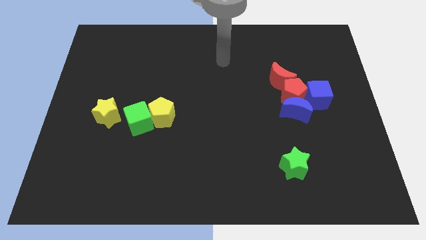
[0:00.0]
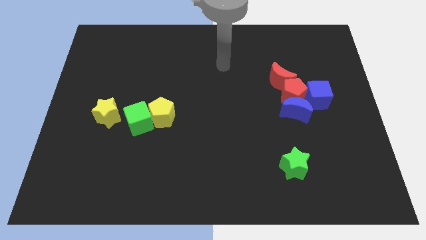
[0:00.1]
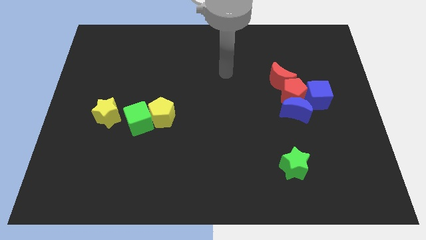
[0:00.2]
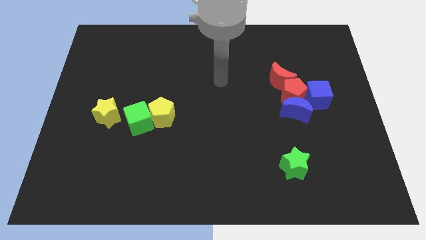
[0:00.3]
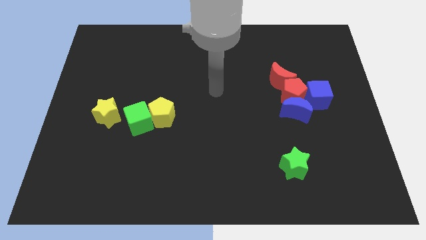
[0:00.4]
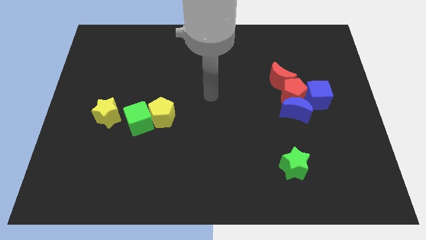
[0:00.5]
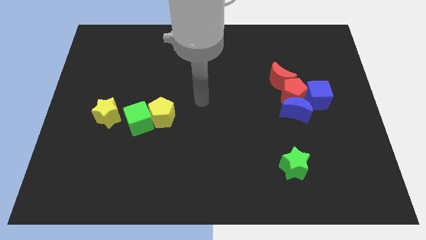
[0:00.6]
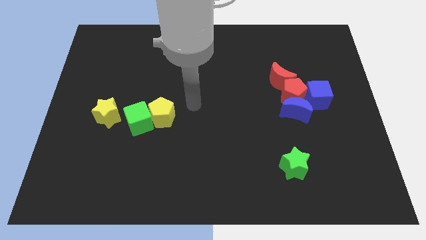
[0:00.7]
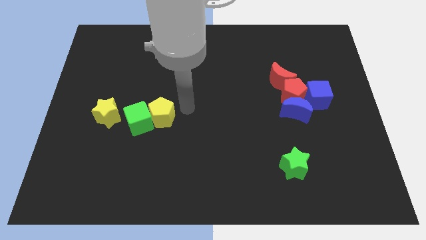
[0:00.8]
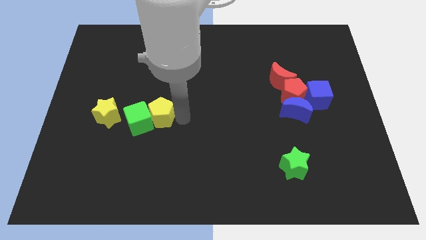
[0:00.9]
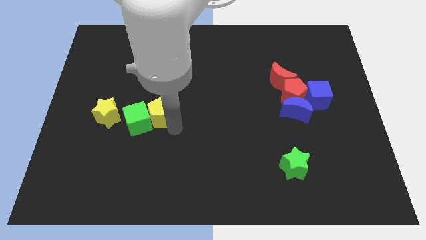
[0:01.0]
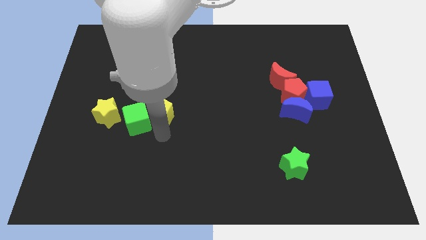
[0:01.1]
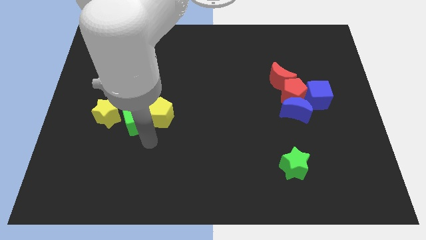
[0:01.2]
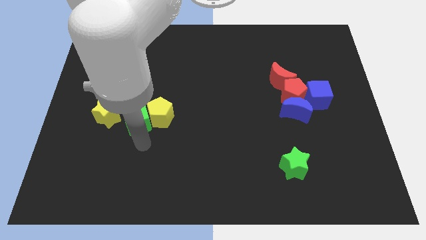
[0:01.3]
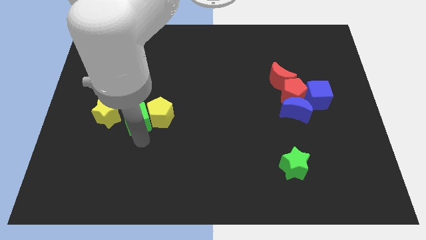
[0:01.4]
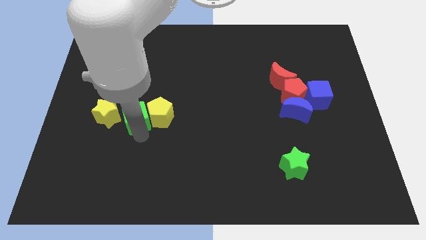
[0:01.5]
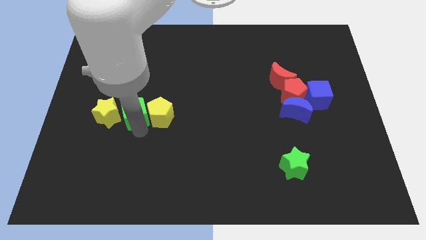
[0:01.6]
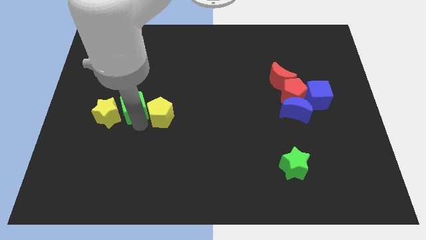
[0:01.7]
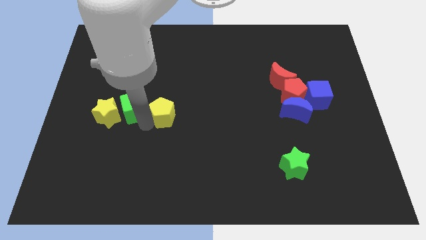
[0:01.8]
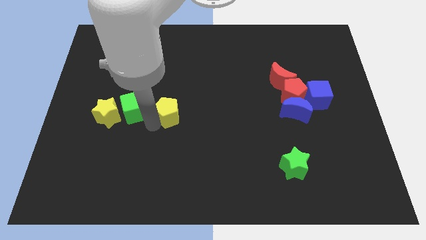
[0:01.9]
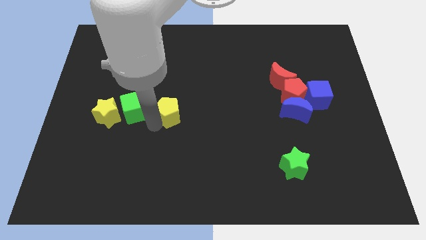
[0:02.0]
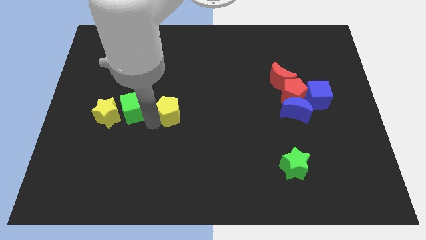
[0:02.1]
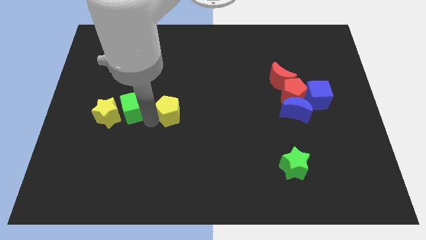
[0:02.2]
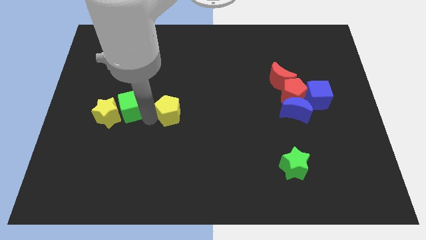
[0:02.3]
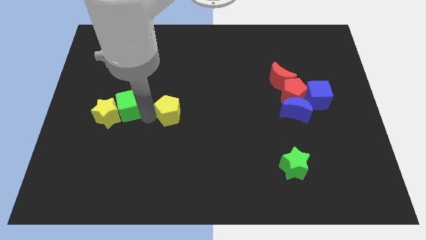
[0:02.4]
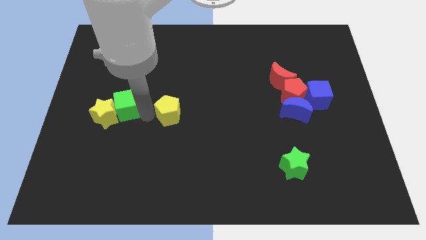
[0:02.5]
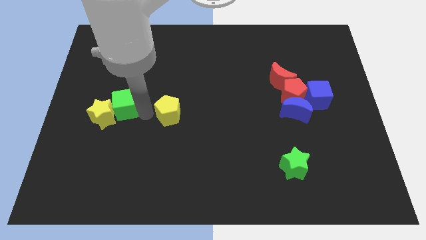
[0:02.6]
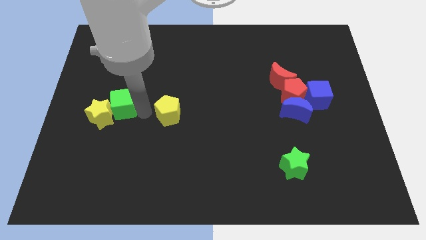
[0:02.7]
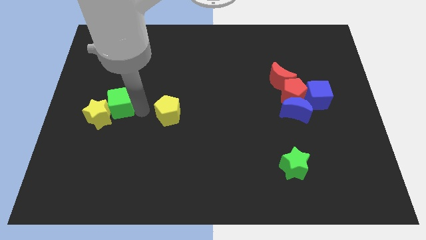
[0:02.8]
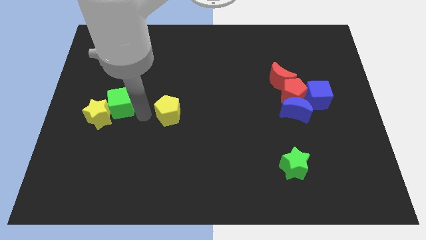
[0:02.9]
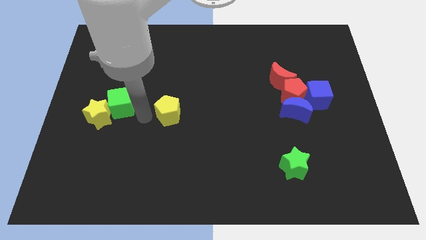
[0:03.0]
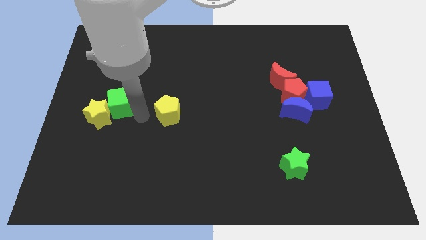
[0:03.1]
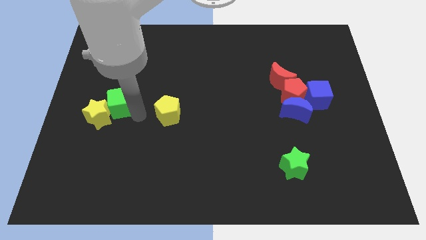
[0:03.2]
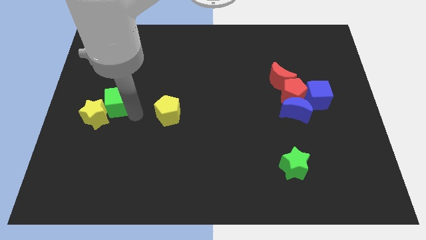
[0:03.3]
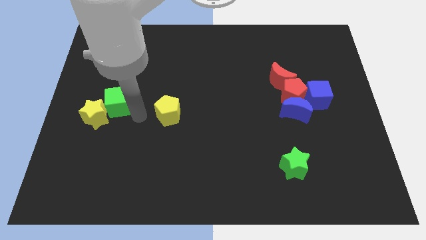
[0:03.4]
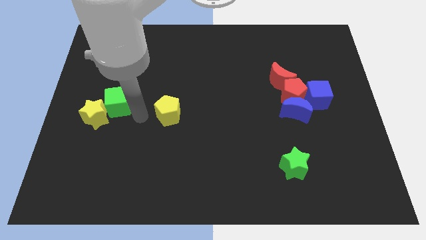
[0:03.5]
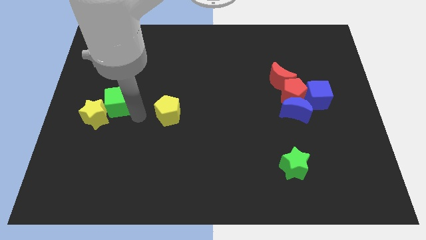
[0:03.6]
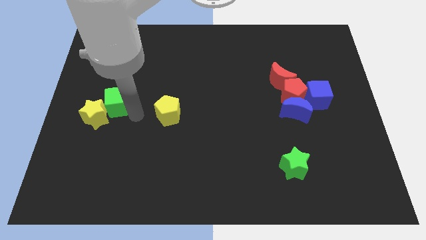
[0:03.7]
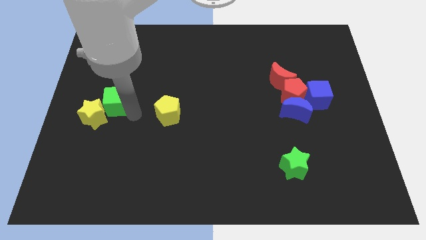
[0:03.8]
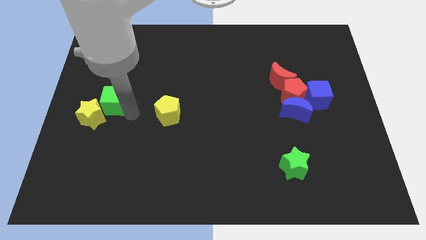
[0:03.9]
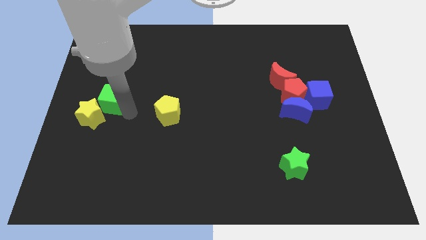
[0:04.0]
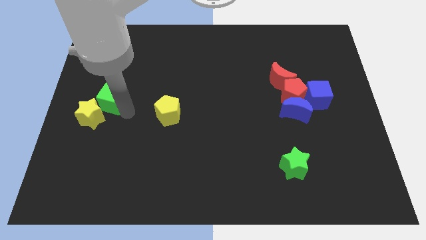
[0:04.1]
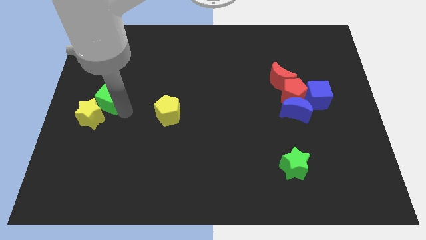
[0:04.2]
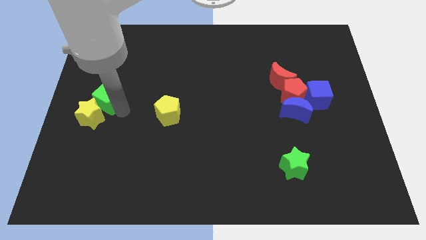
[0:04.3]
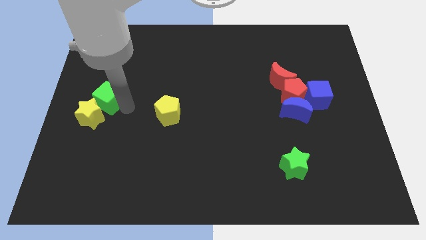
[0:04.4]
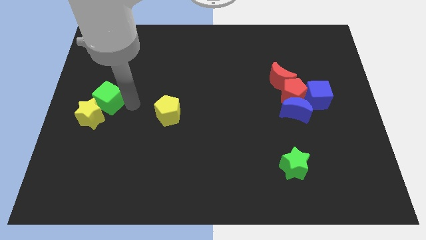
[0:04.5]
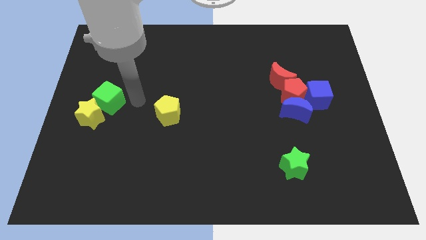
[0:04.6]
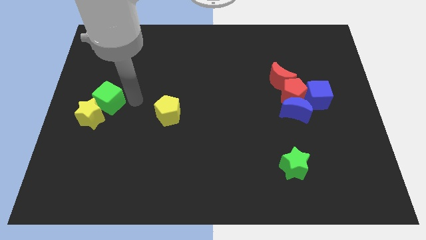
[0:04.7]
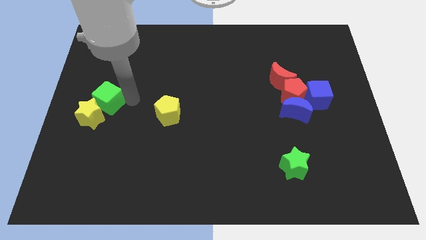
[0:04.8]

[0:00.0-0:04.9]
put the green cube to the left side of the board

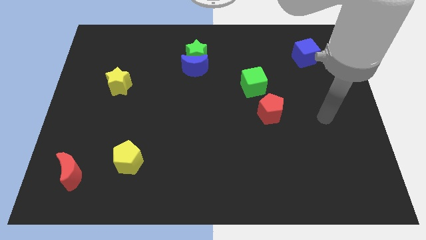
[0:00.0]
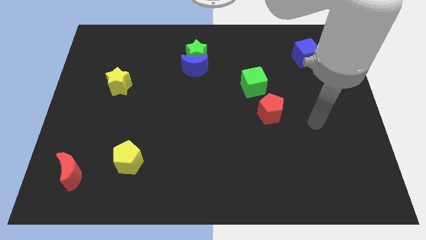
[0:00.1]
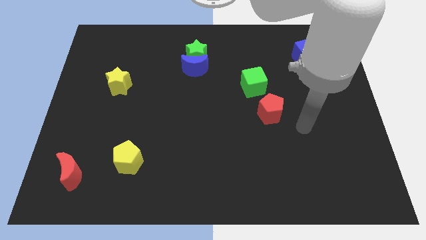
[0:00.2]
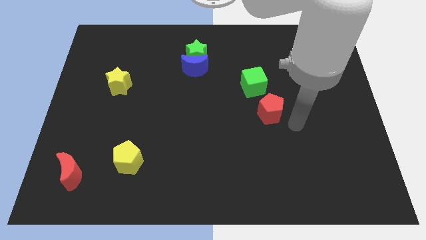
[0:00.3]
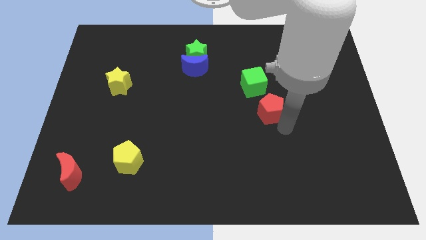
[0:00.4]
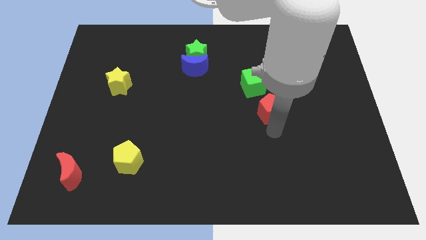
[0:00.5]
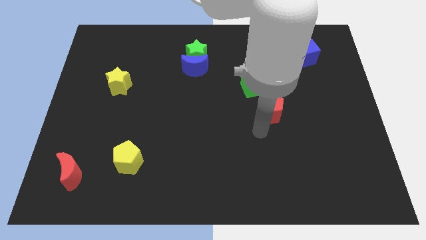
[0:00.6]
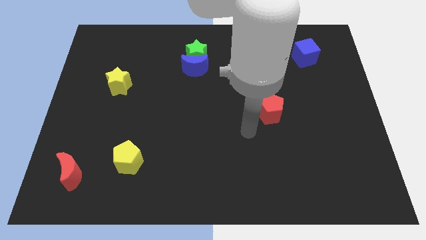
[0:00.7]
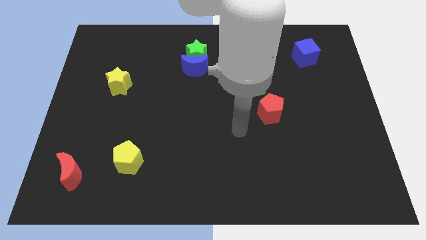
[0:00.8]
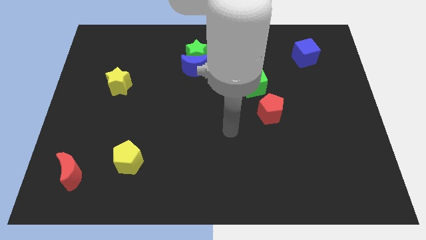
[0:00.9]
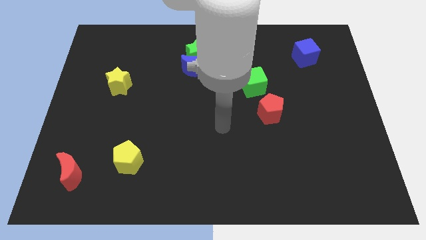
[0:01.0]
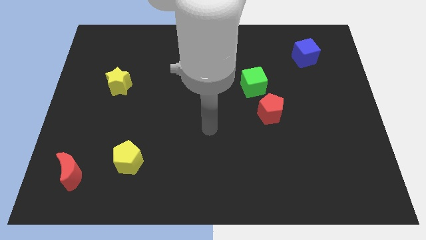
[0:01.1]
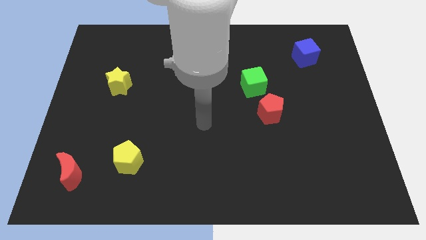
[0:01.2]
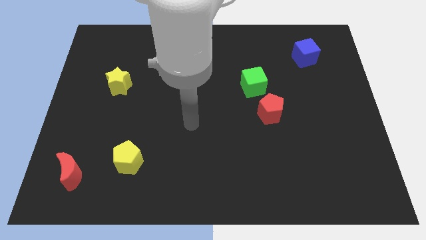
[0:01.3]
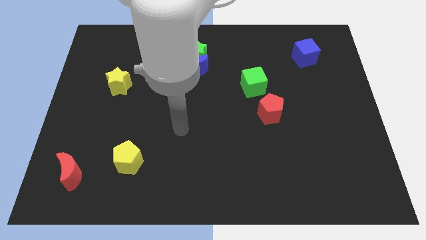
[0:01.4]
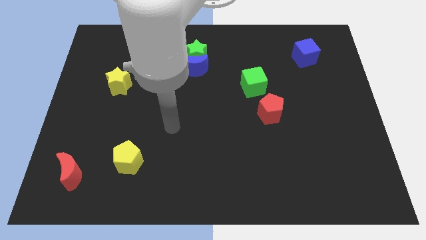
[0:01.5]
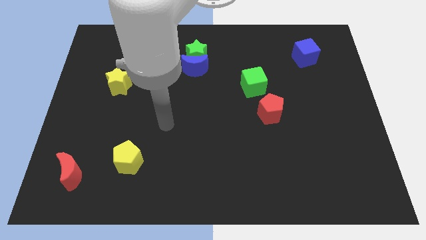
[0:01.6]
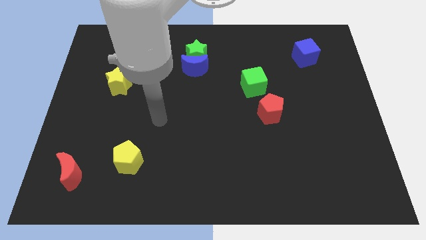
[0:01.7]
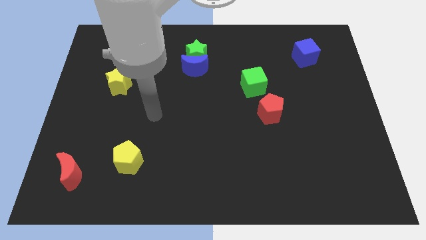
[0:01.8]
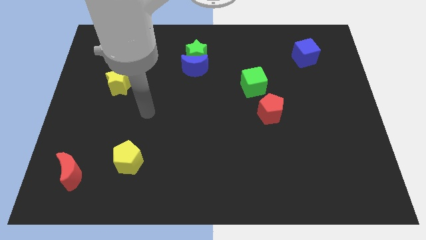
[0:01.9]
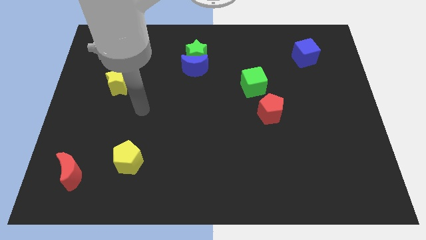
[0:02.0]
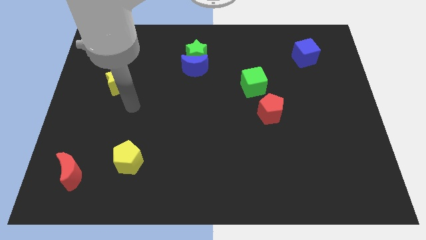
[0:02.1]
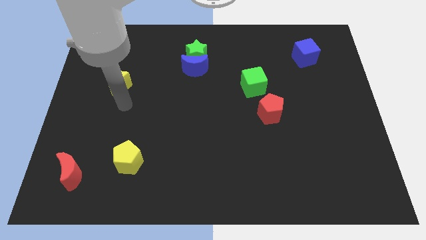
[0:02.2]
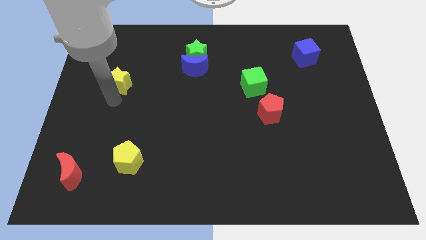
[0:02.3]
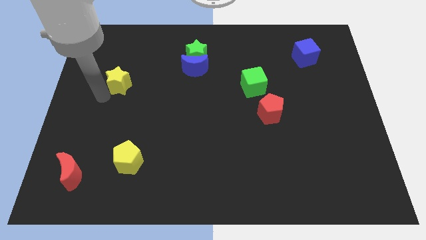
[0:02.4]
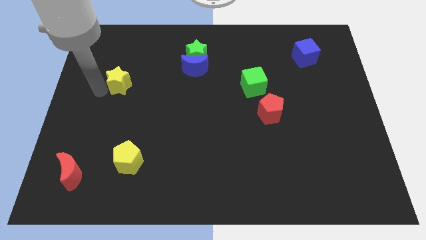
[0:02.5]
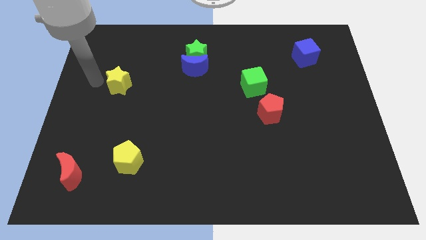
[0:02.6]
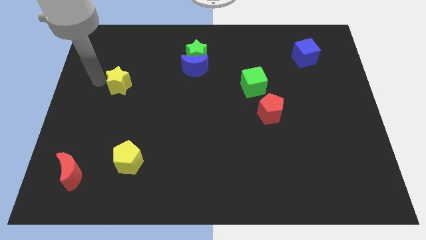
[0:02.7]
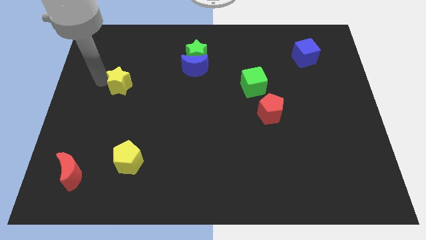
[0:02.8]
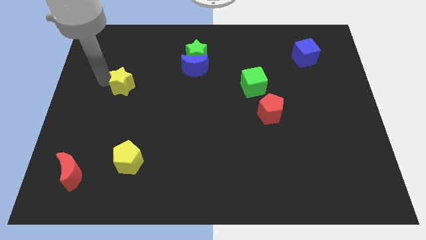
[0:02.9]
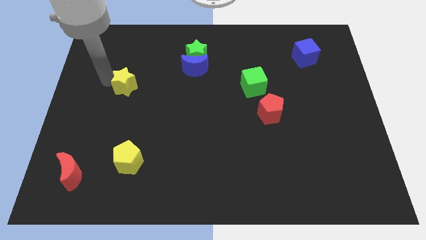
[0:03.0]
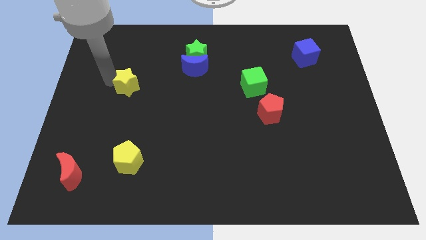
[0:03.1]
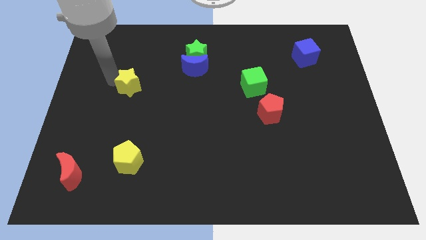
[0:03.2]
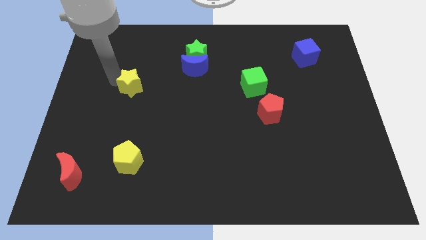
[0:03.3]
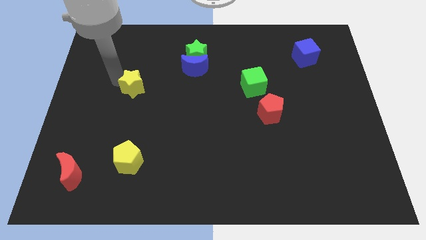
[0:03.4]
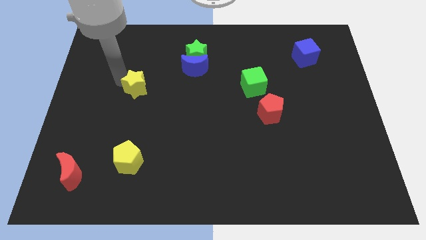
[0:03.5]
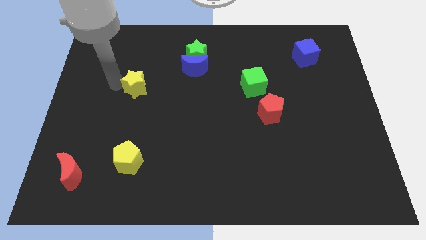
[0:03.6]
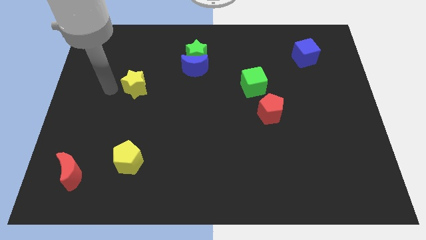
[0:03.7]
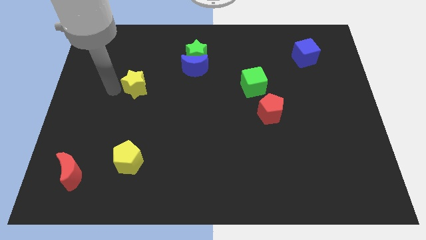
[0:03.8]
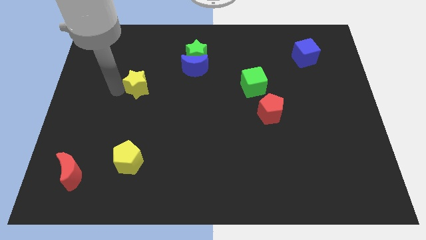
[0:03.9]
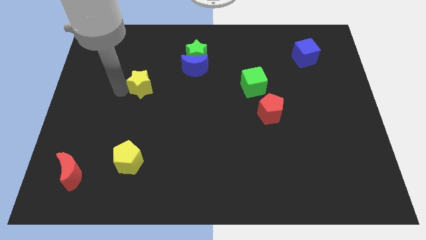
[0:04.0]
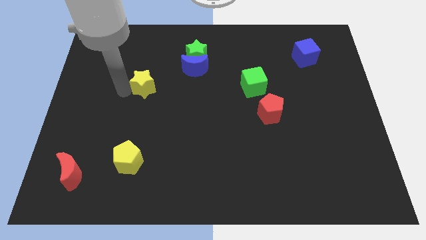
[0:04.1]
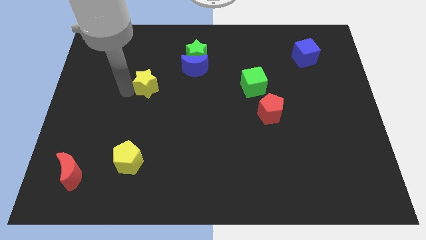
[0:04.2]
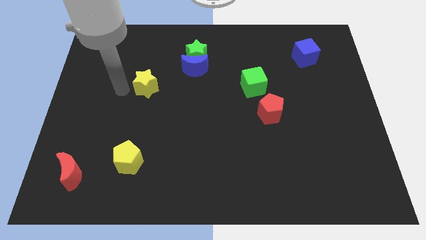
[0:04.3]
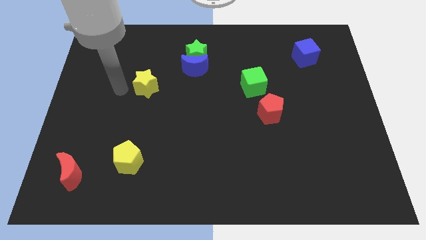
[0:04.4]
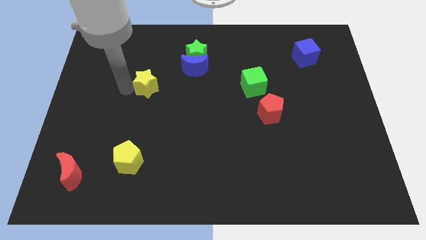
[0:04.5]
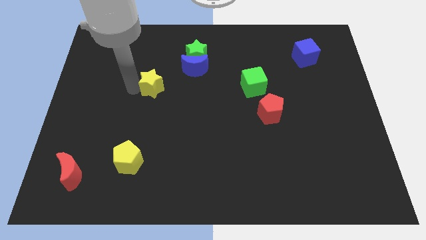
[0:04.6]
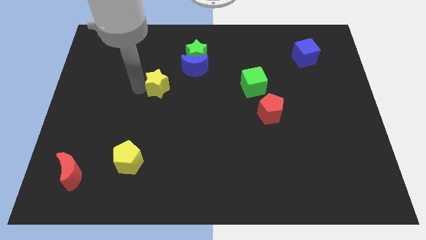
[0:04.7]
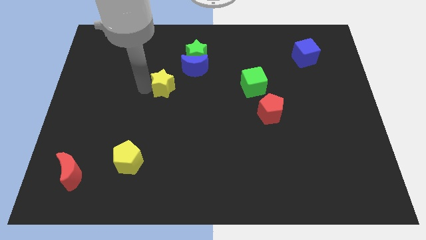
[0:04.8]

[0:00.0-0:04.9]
move the yellow star to the center
